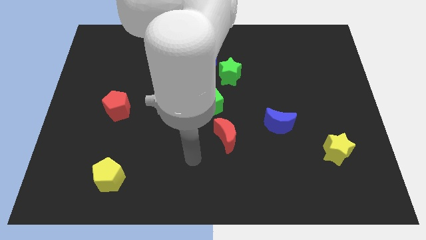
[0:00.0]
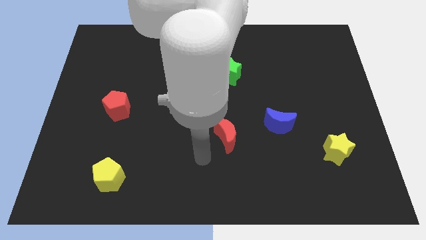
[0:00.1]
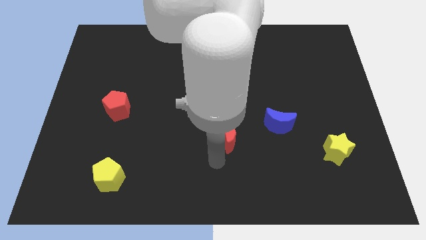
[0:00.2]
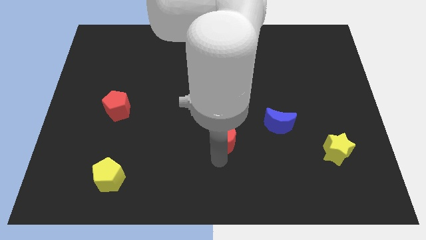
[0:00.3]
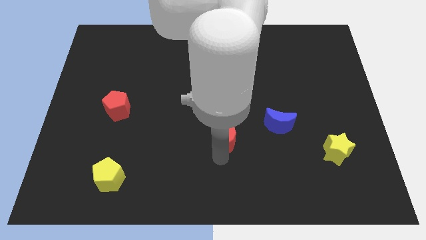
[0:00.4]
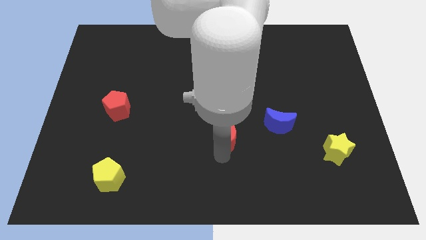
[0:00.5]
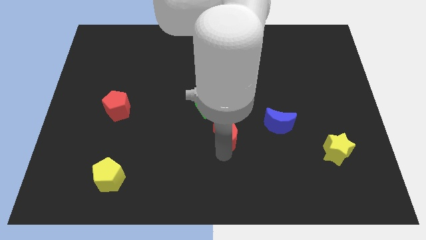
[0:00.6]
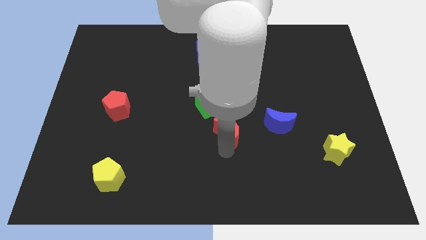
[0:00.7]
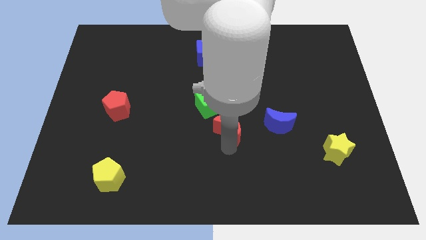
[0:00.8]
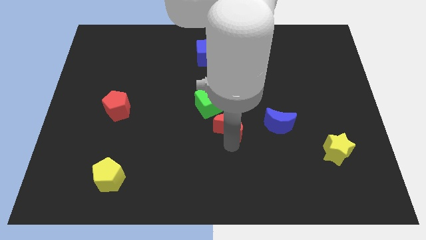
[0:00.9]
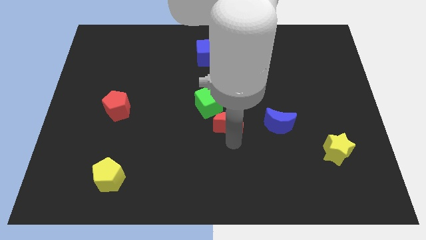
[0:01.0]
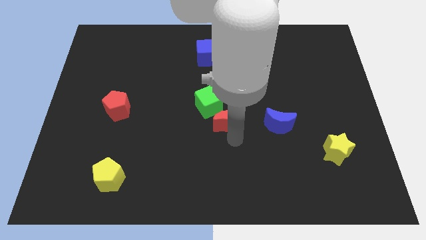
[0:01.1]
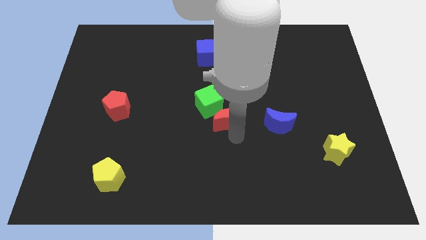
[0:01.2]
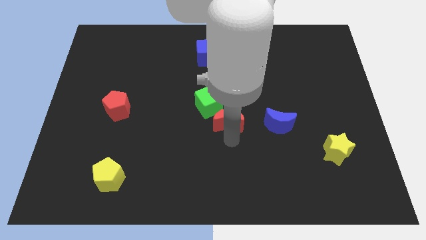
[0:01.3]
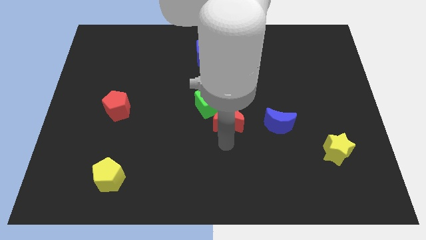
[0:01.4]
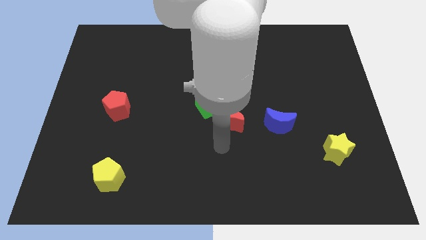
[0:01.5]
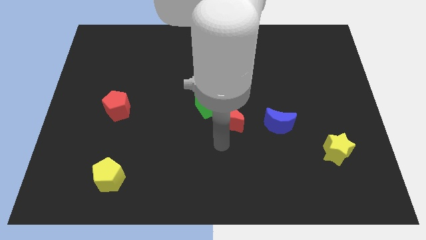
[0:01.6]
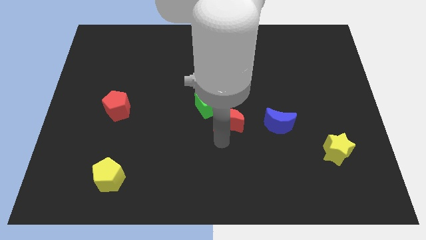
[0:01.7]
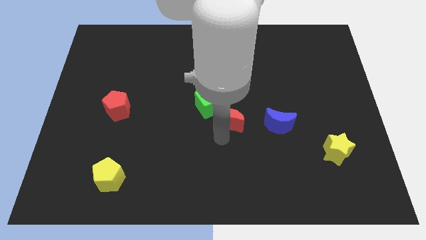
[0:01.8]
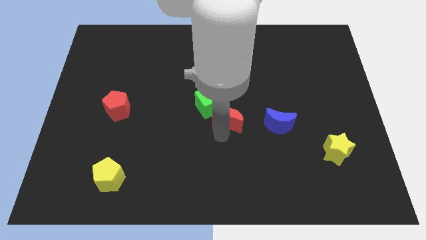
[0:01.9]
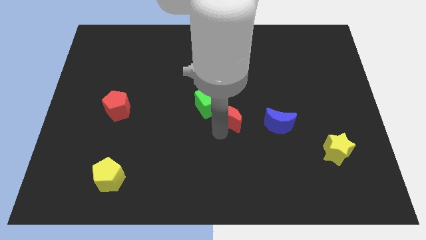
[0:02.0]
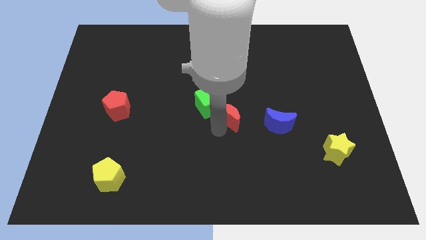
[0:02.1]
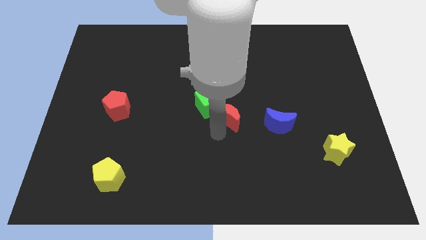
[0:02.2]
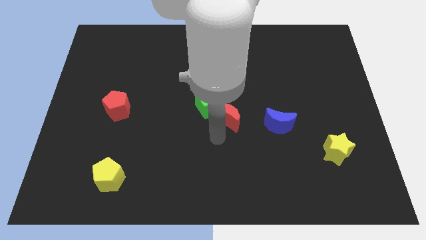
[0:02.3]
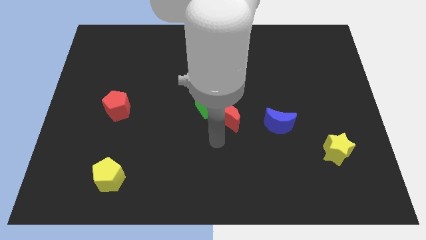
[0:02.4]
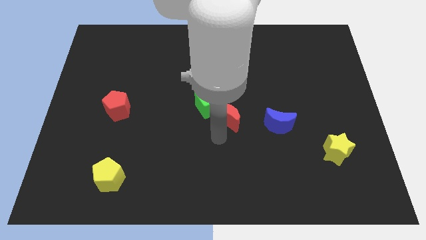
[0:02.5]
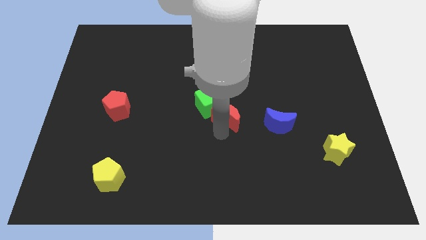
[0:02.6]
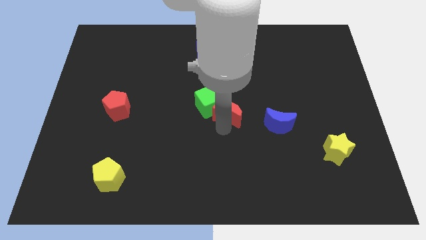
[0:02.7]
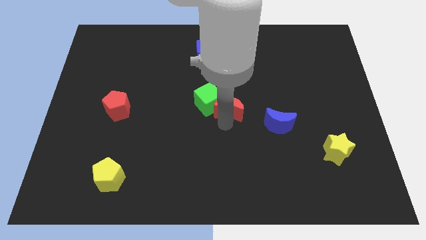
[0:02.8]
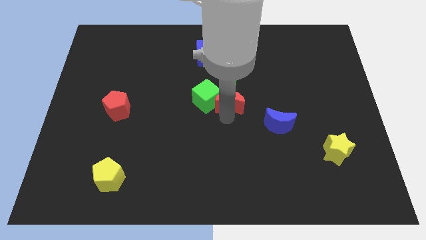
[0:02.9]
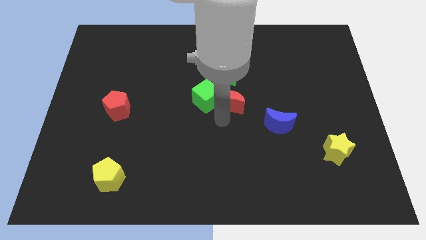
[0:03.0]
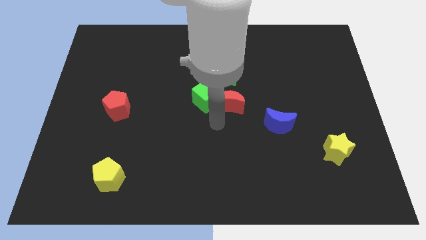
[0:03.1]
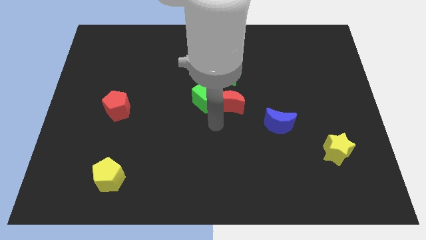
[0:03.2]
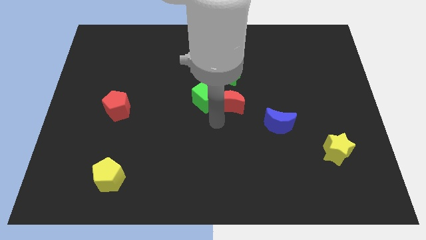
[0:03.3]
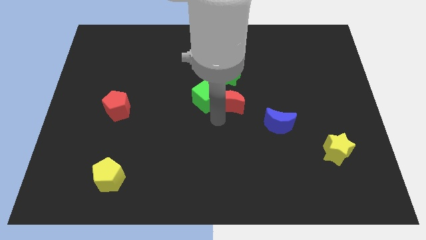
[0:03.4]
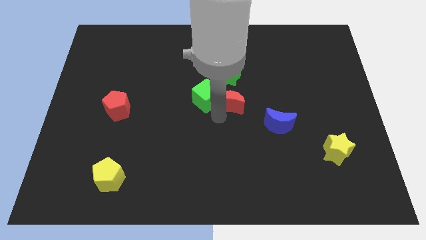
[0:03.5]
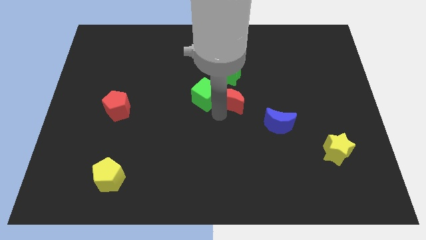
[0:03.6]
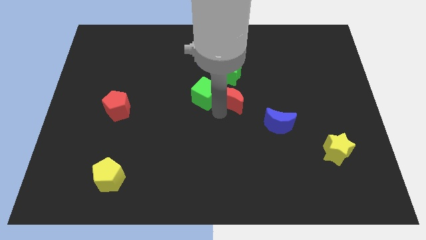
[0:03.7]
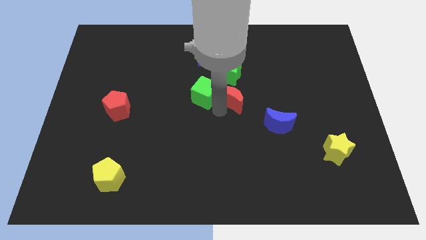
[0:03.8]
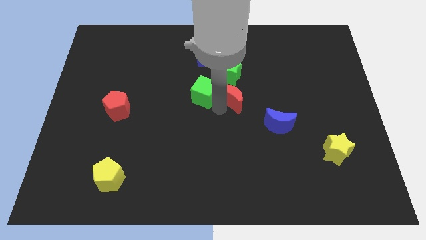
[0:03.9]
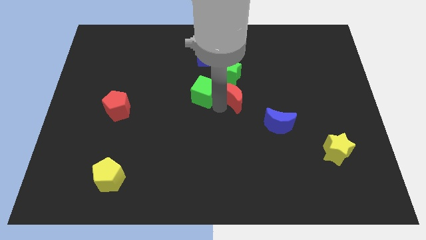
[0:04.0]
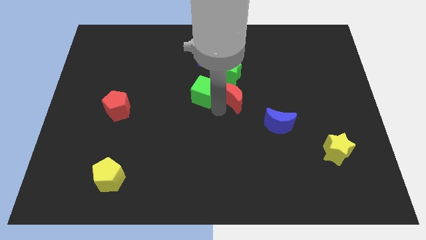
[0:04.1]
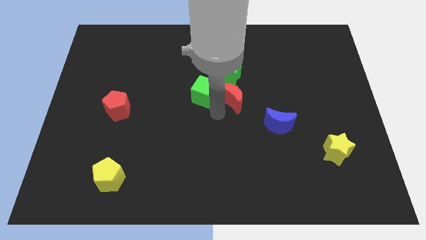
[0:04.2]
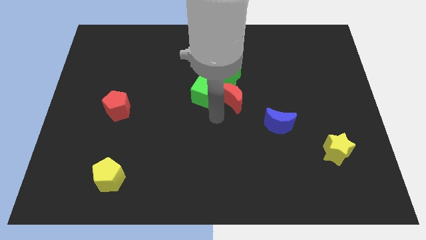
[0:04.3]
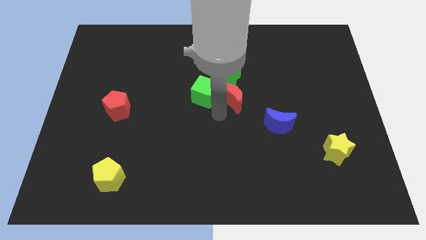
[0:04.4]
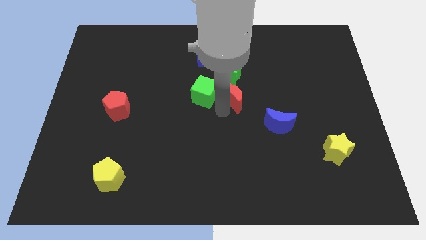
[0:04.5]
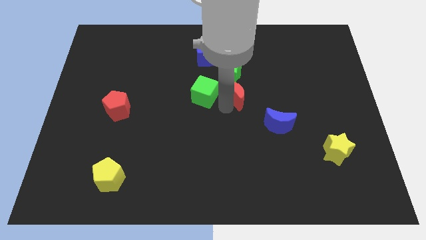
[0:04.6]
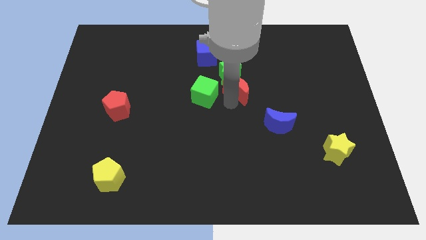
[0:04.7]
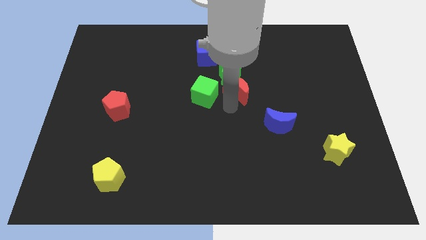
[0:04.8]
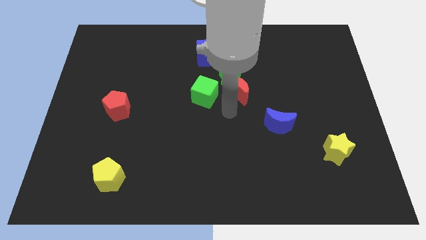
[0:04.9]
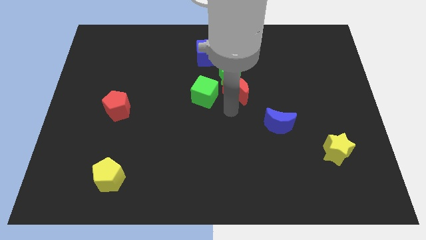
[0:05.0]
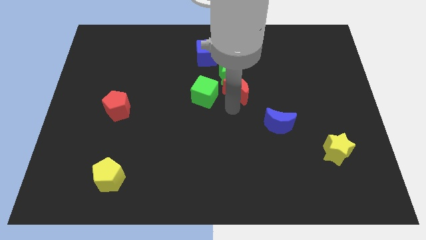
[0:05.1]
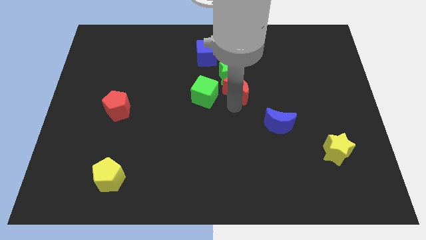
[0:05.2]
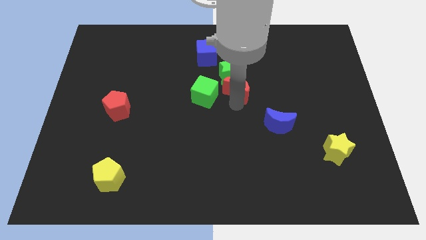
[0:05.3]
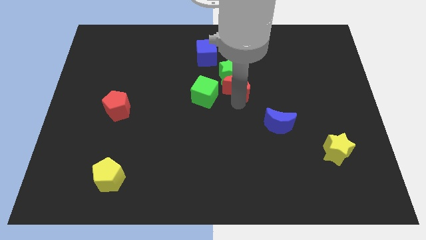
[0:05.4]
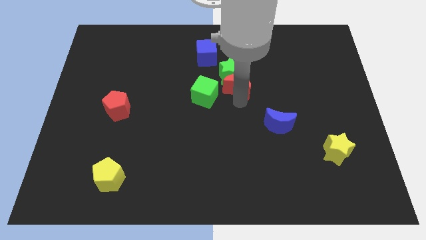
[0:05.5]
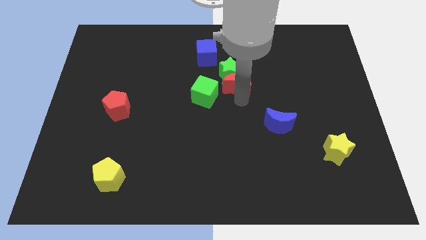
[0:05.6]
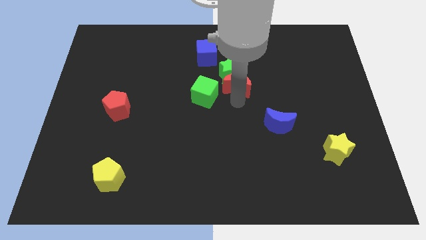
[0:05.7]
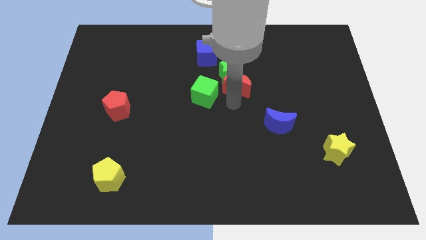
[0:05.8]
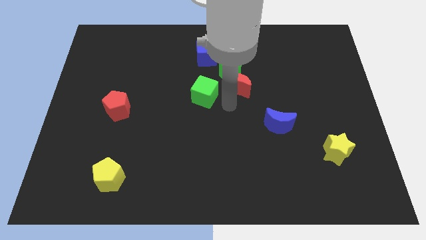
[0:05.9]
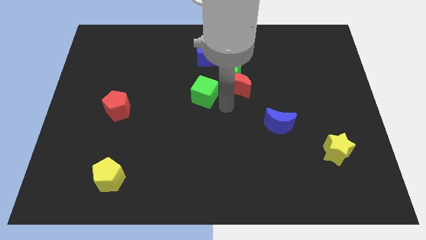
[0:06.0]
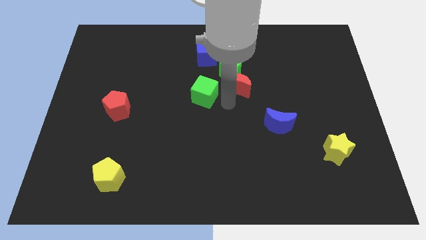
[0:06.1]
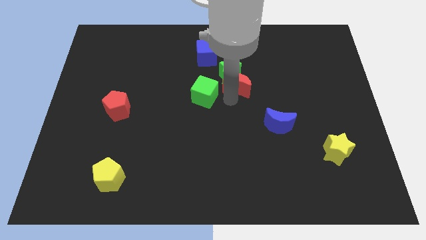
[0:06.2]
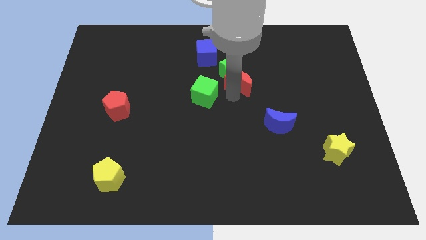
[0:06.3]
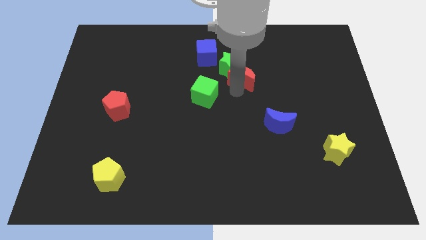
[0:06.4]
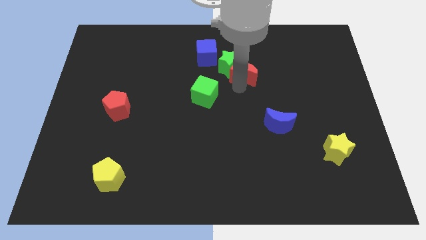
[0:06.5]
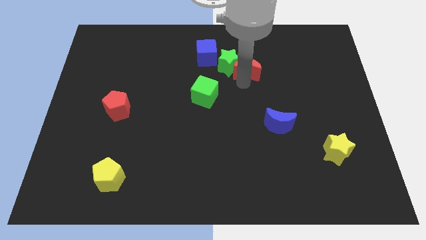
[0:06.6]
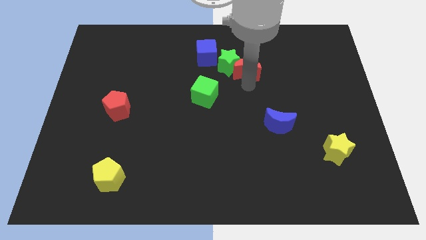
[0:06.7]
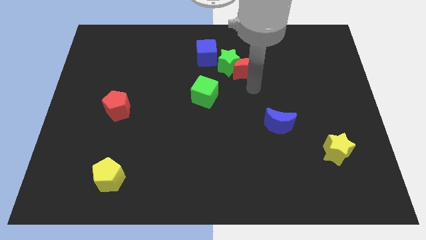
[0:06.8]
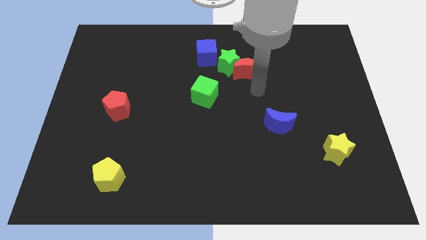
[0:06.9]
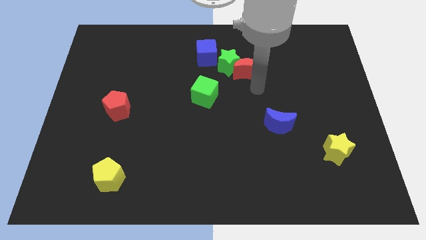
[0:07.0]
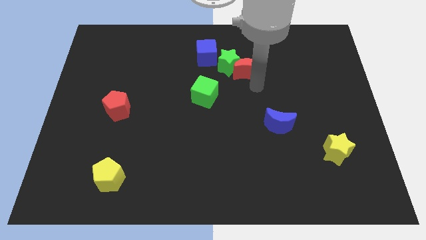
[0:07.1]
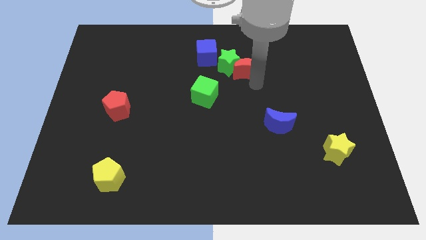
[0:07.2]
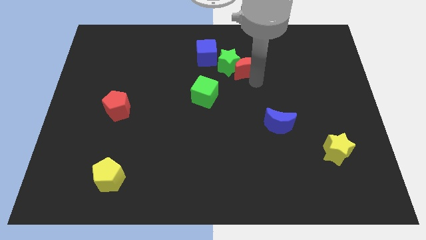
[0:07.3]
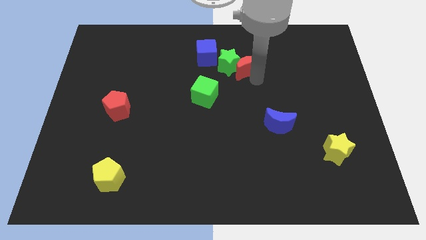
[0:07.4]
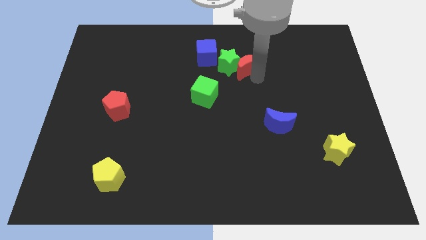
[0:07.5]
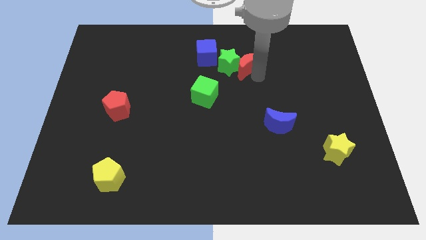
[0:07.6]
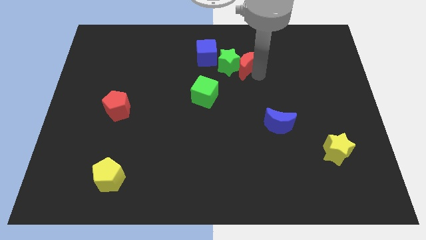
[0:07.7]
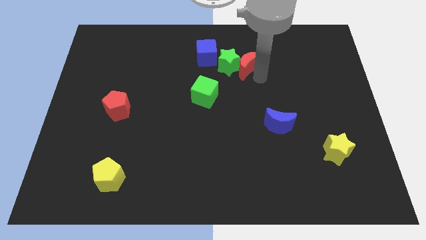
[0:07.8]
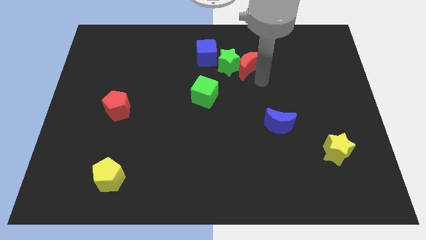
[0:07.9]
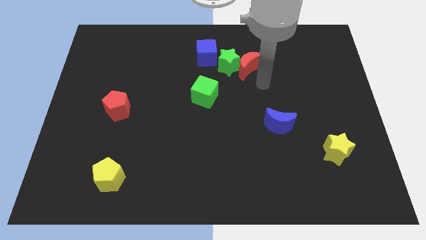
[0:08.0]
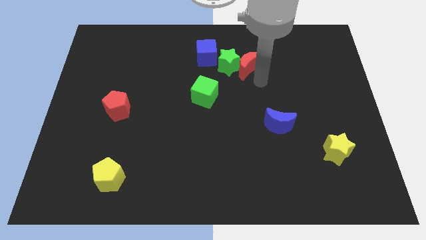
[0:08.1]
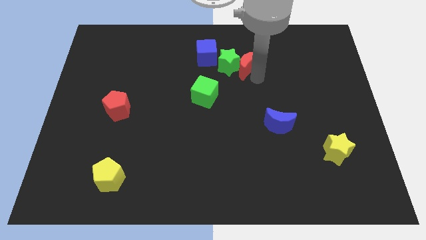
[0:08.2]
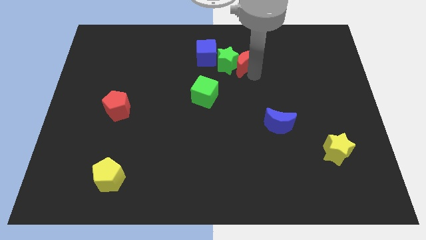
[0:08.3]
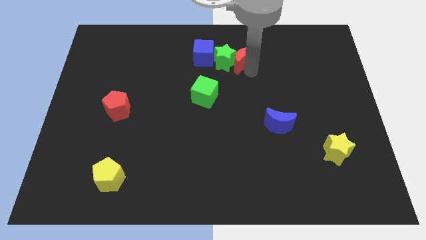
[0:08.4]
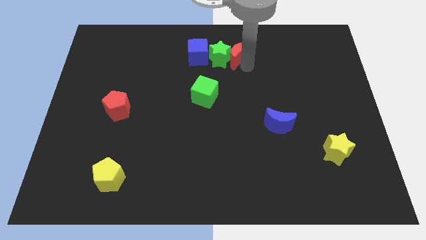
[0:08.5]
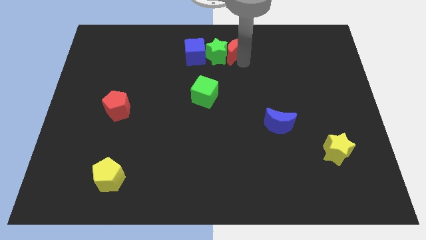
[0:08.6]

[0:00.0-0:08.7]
move the red moon to the towards your base
